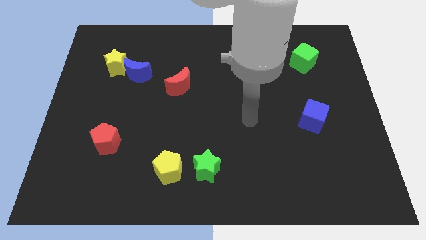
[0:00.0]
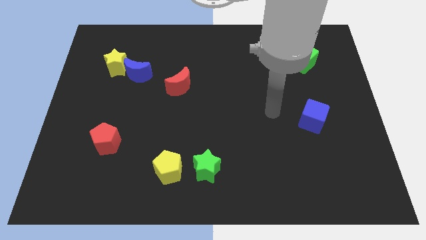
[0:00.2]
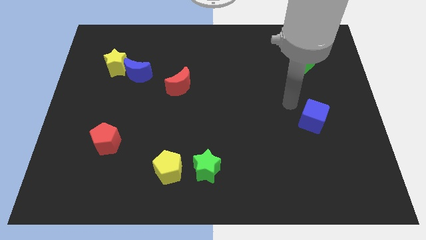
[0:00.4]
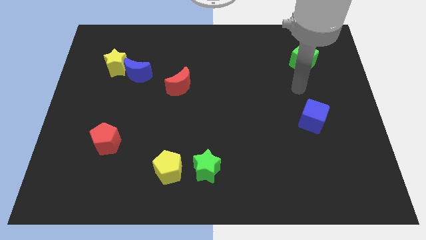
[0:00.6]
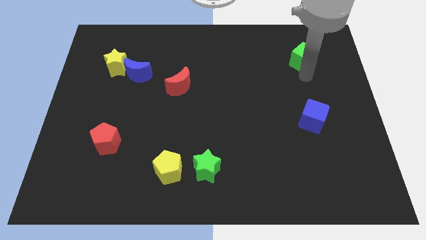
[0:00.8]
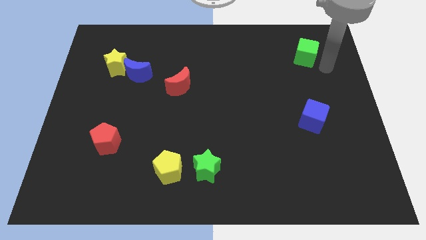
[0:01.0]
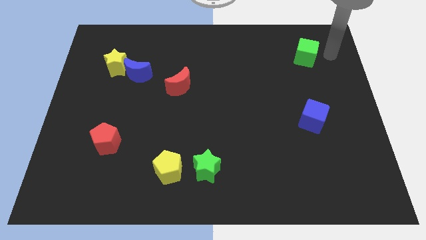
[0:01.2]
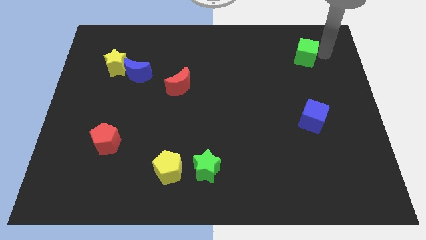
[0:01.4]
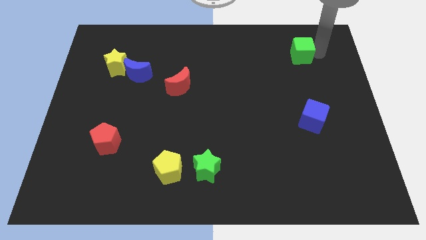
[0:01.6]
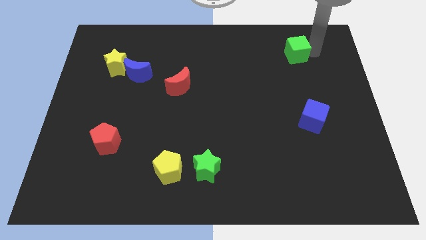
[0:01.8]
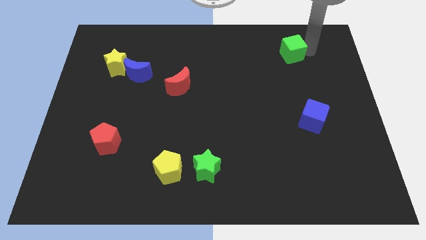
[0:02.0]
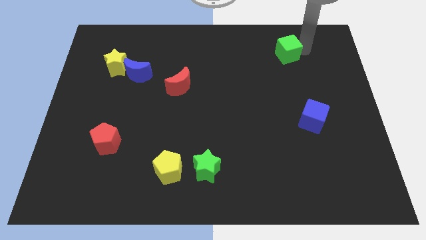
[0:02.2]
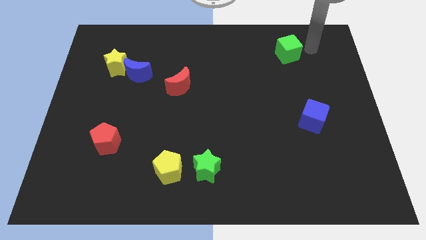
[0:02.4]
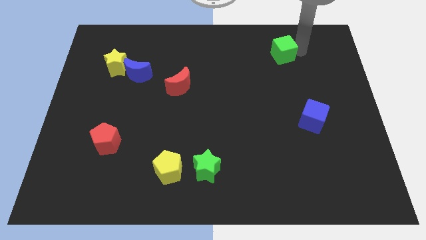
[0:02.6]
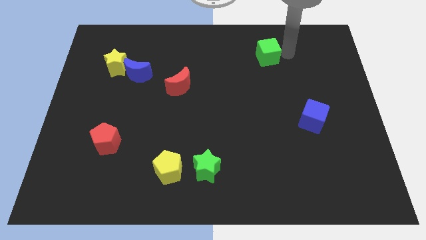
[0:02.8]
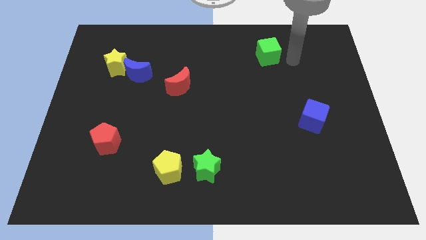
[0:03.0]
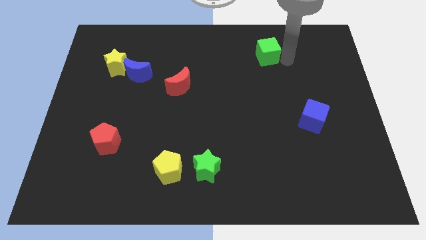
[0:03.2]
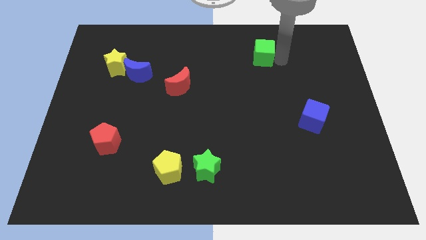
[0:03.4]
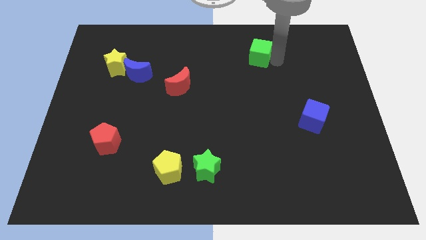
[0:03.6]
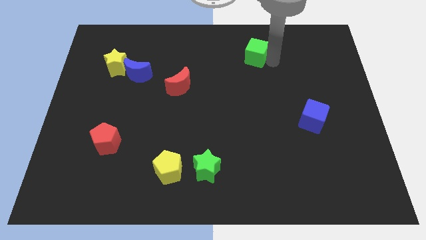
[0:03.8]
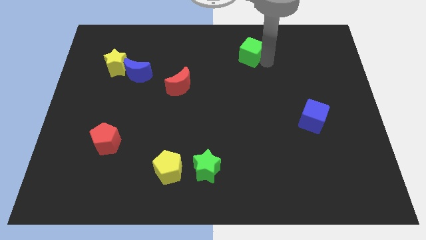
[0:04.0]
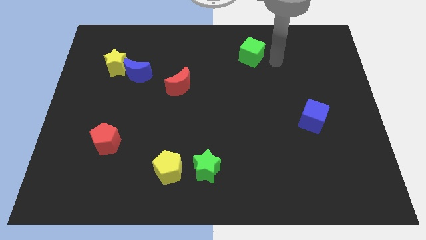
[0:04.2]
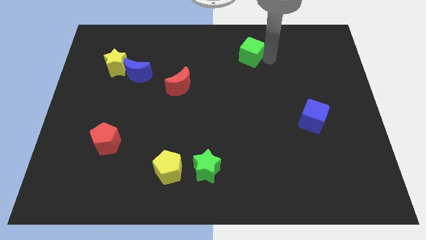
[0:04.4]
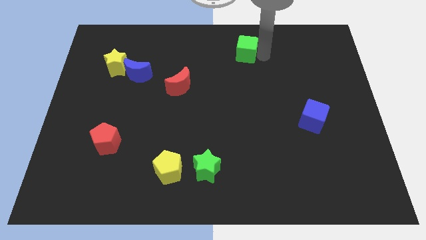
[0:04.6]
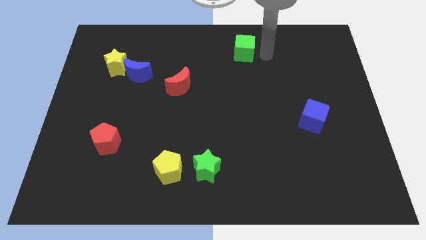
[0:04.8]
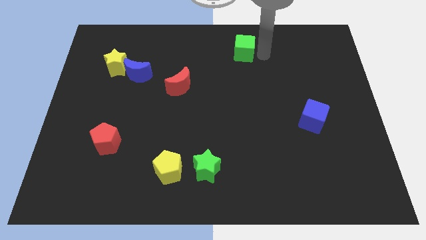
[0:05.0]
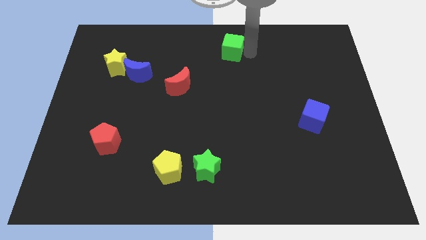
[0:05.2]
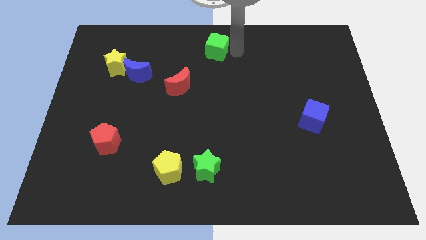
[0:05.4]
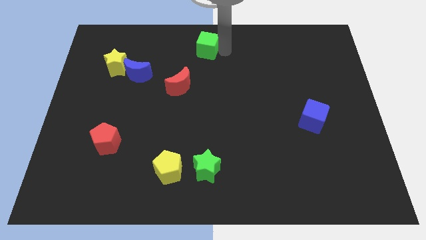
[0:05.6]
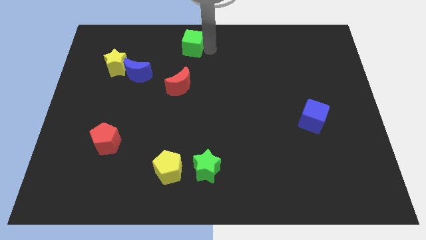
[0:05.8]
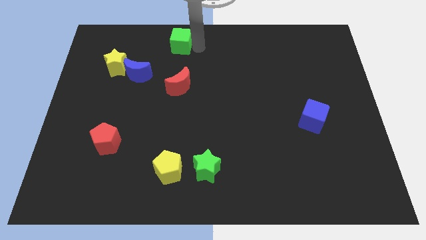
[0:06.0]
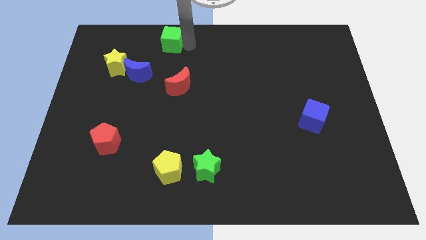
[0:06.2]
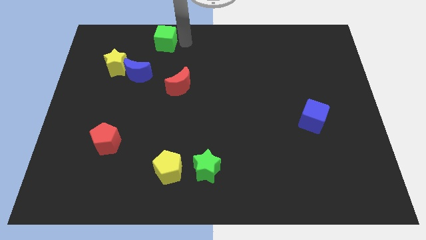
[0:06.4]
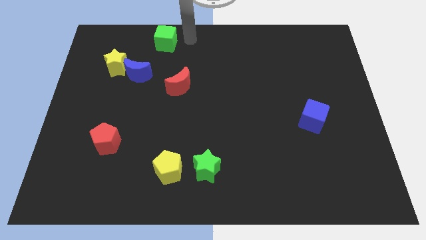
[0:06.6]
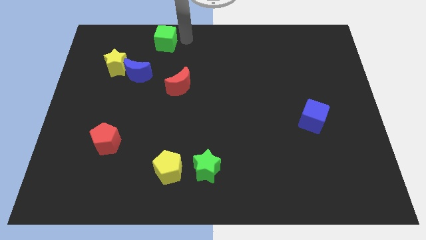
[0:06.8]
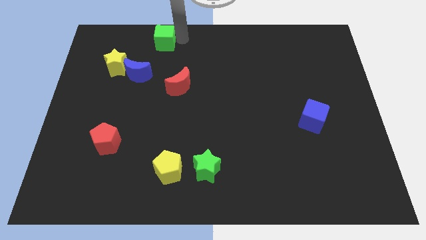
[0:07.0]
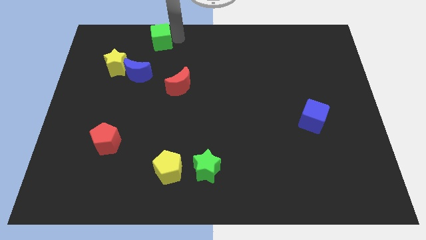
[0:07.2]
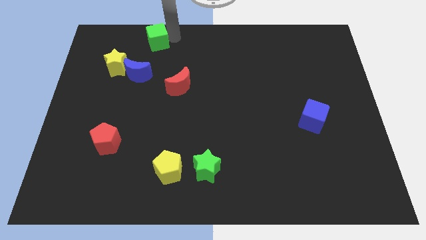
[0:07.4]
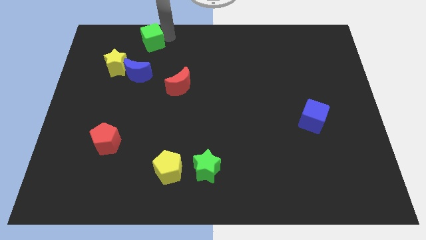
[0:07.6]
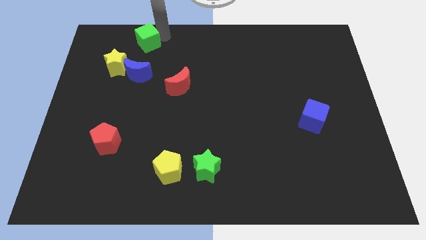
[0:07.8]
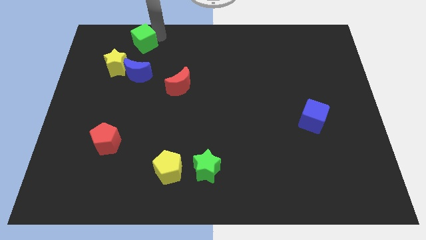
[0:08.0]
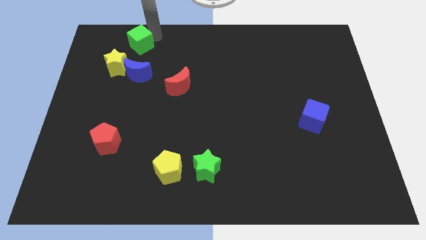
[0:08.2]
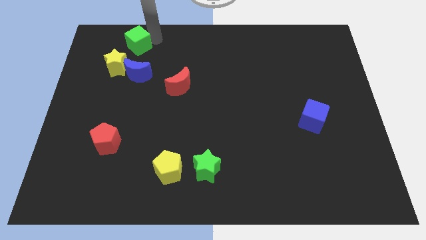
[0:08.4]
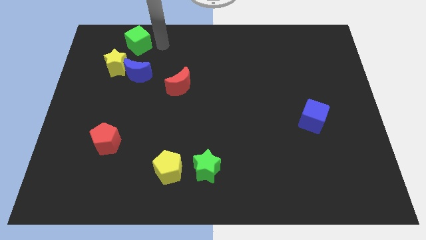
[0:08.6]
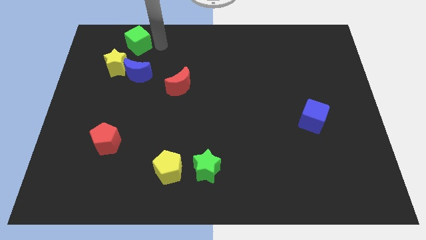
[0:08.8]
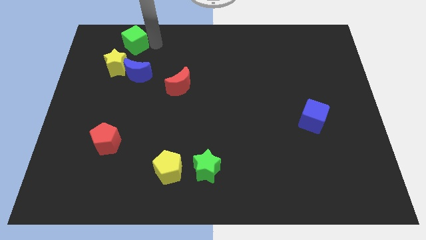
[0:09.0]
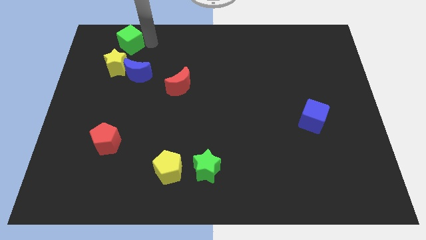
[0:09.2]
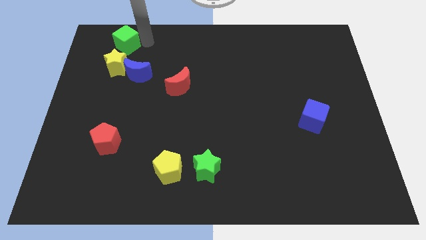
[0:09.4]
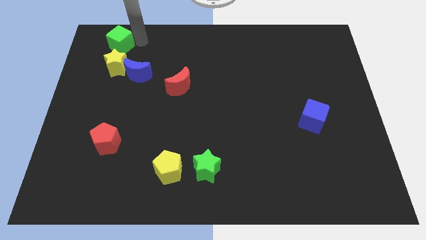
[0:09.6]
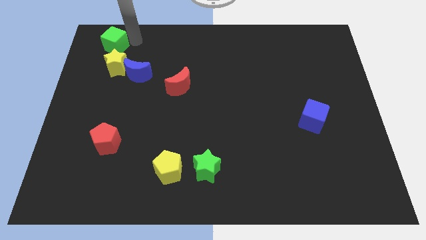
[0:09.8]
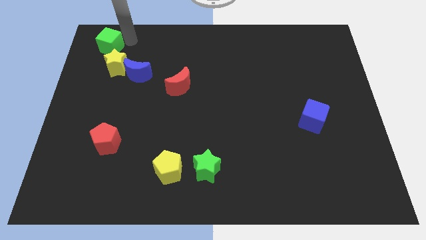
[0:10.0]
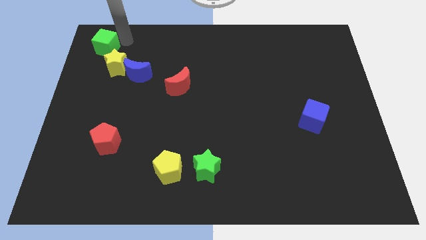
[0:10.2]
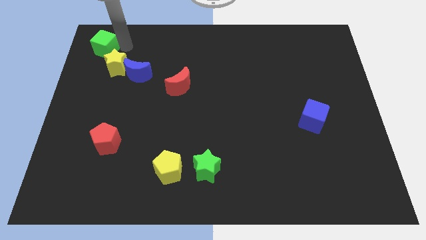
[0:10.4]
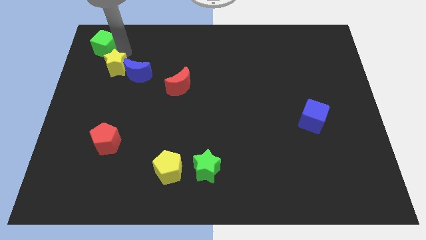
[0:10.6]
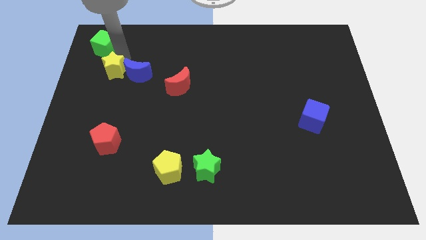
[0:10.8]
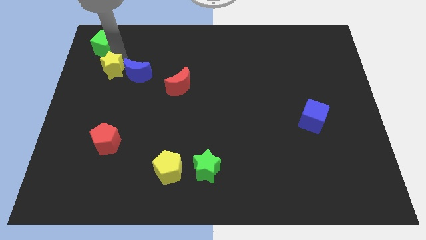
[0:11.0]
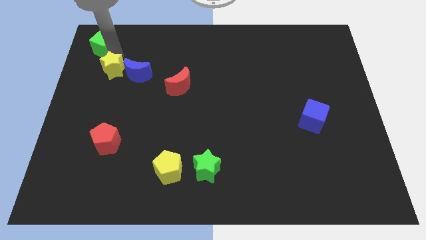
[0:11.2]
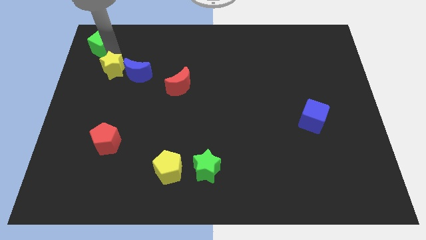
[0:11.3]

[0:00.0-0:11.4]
push the green cube to the top left
